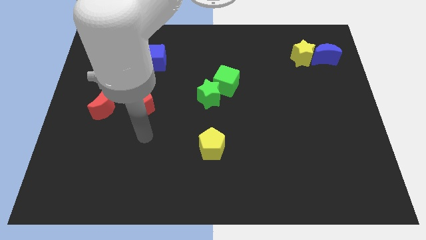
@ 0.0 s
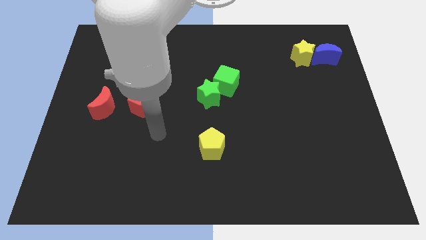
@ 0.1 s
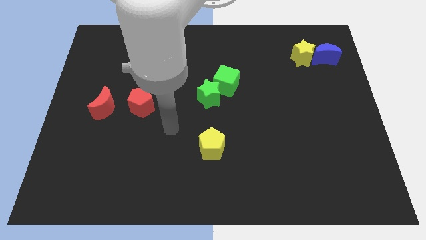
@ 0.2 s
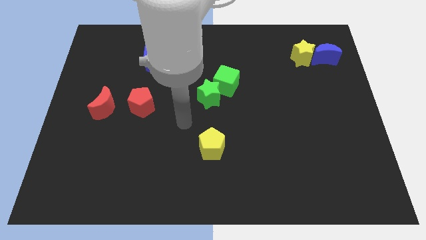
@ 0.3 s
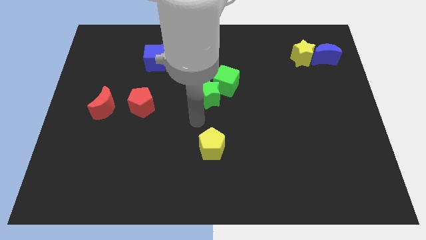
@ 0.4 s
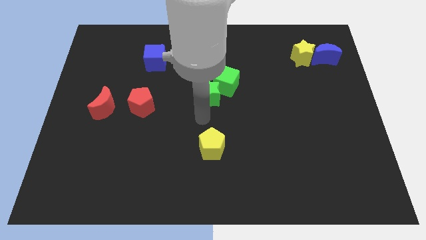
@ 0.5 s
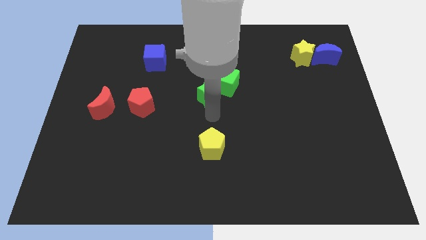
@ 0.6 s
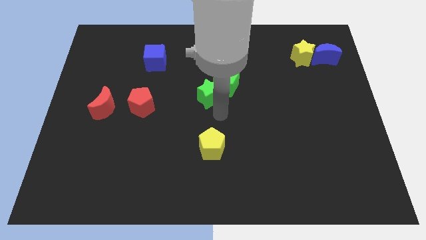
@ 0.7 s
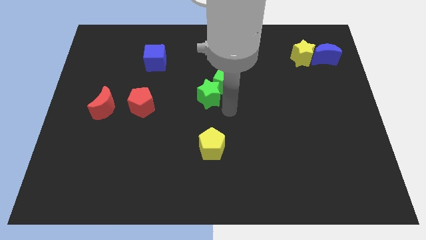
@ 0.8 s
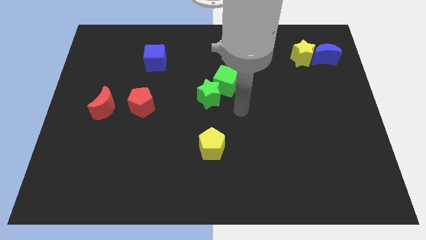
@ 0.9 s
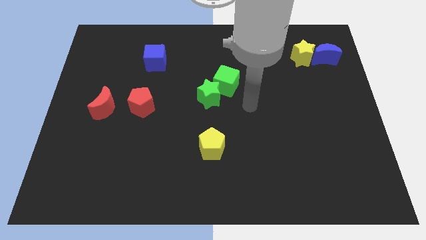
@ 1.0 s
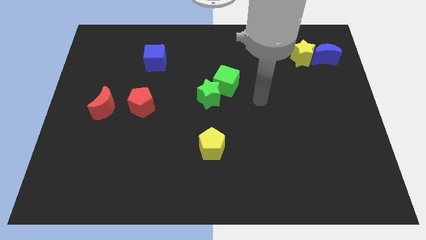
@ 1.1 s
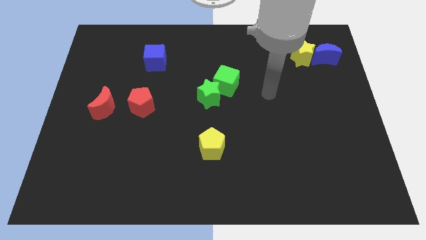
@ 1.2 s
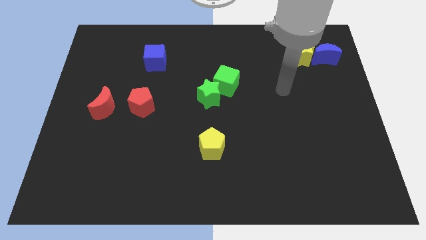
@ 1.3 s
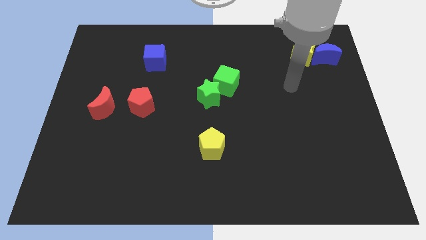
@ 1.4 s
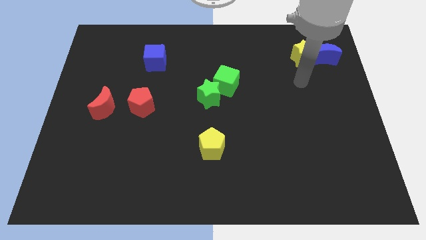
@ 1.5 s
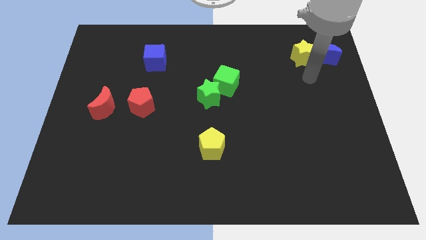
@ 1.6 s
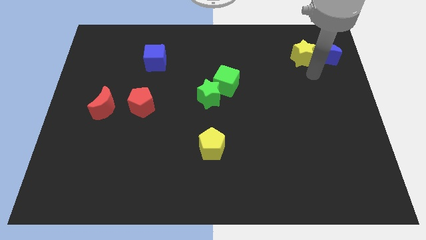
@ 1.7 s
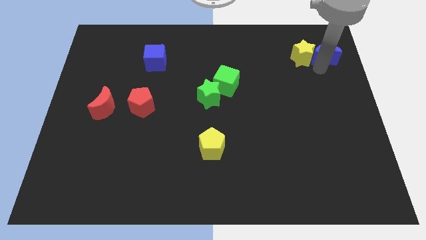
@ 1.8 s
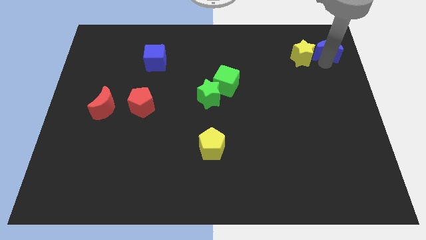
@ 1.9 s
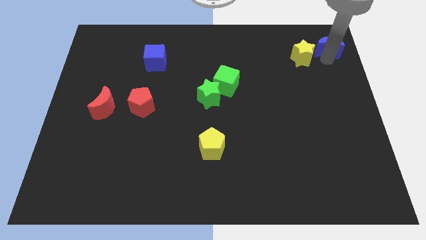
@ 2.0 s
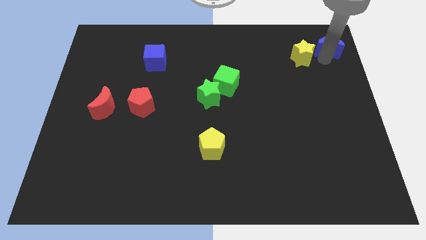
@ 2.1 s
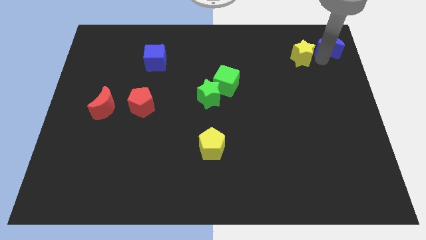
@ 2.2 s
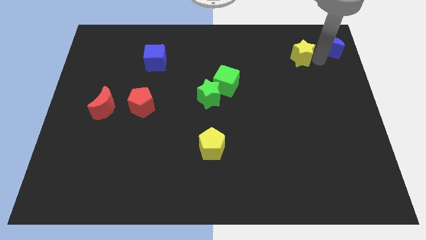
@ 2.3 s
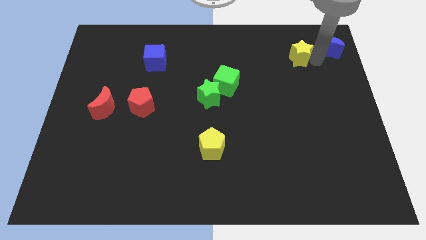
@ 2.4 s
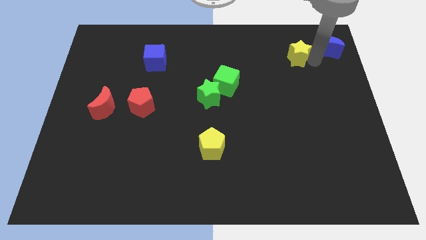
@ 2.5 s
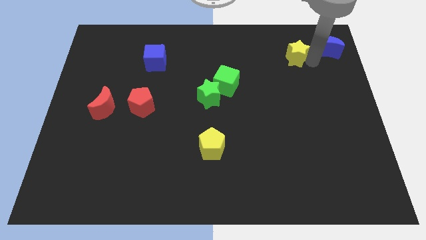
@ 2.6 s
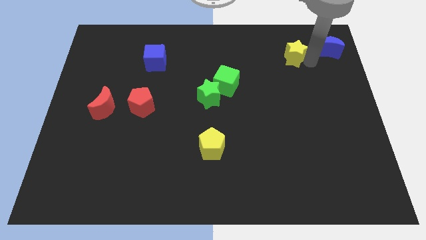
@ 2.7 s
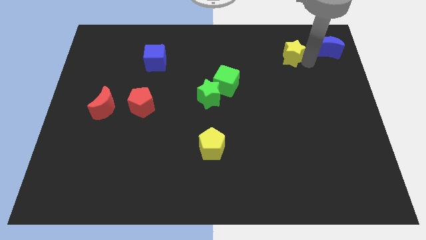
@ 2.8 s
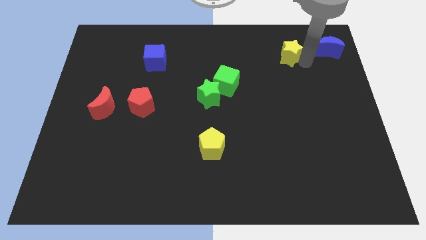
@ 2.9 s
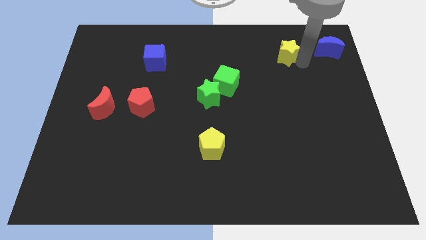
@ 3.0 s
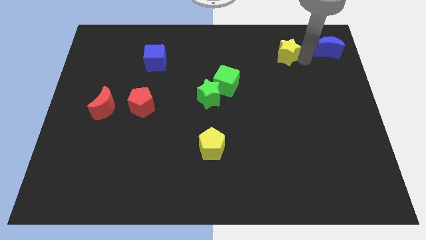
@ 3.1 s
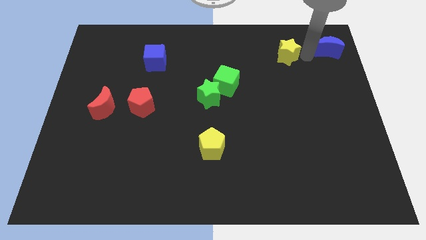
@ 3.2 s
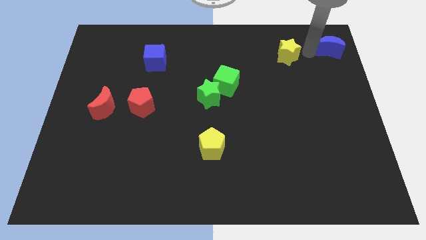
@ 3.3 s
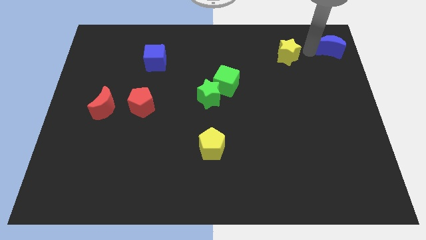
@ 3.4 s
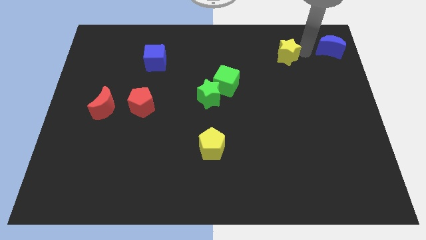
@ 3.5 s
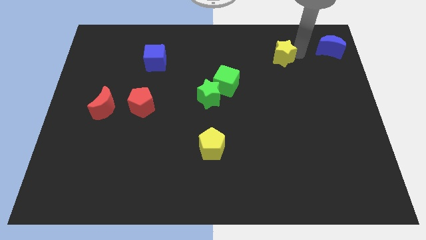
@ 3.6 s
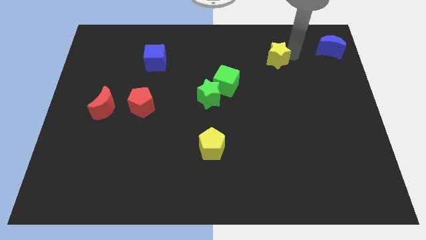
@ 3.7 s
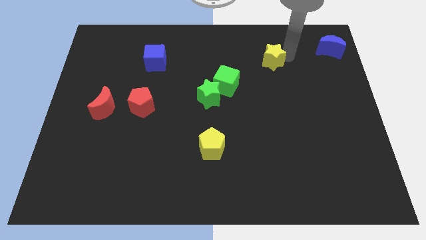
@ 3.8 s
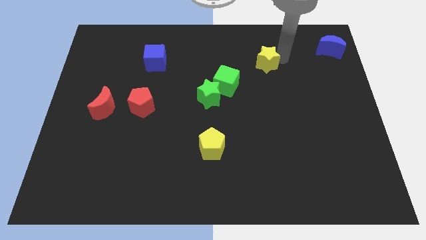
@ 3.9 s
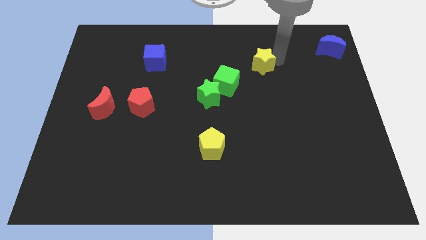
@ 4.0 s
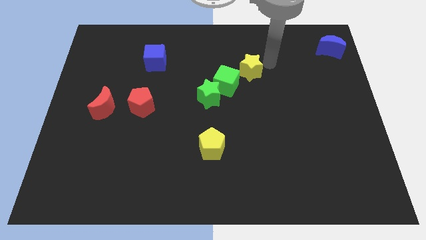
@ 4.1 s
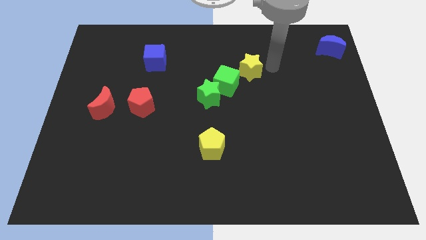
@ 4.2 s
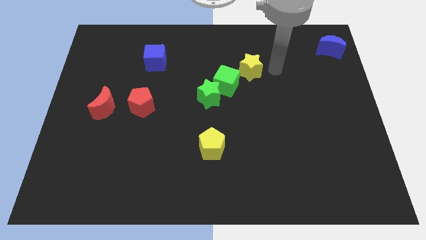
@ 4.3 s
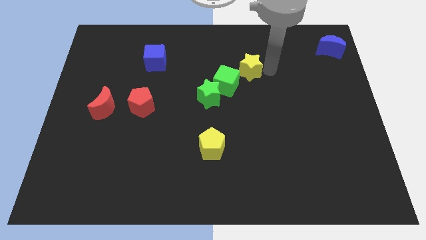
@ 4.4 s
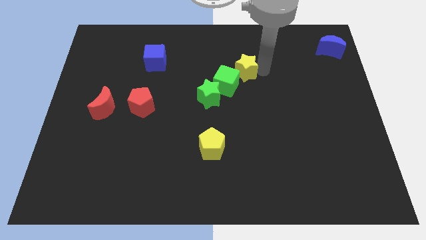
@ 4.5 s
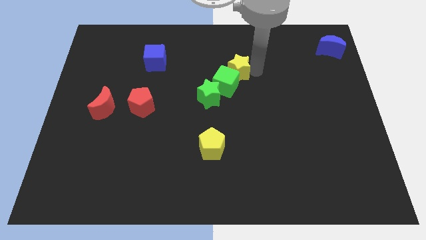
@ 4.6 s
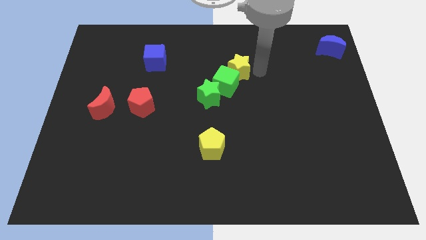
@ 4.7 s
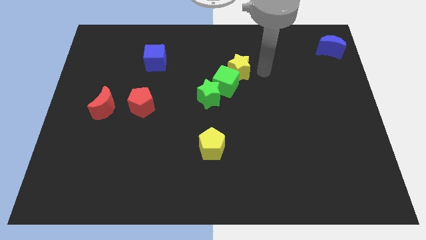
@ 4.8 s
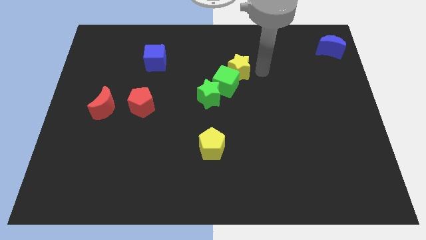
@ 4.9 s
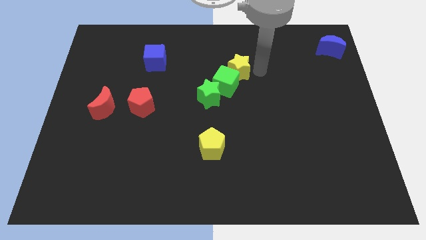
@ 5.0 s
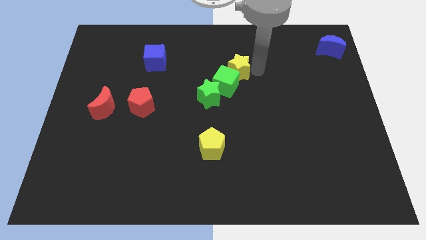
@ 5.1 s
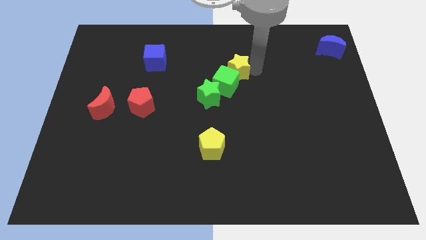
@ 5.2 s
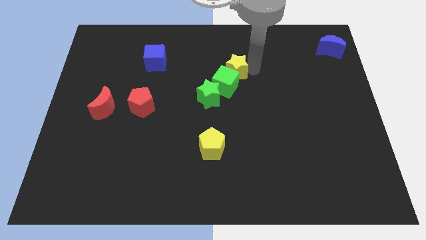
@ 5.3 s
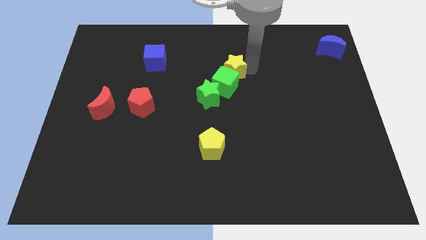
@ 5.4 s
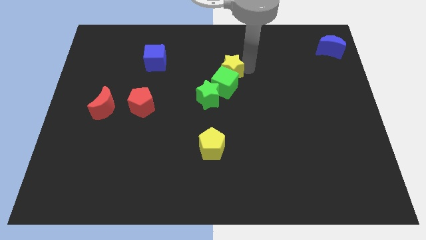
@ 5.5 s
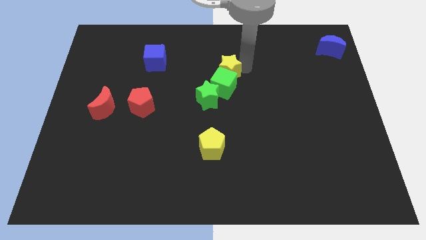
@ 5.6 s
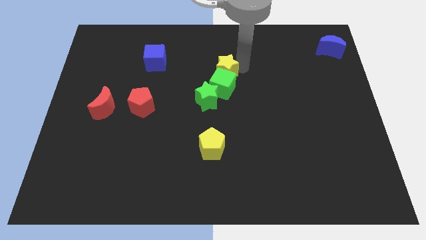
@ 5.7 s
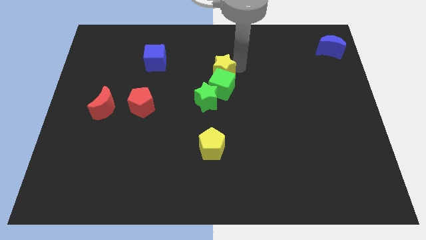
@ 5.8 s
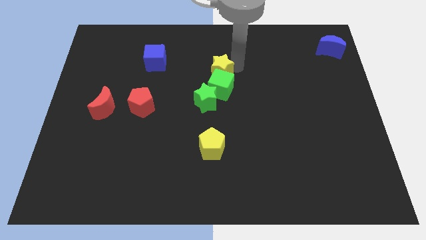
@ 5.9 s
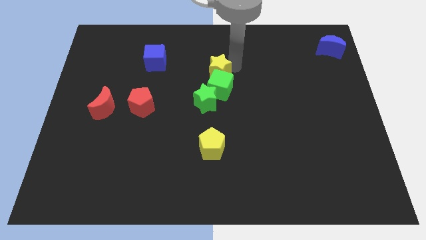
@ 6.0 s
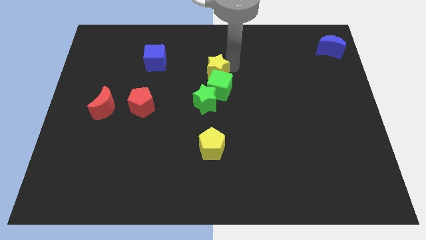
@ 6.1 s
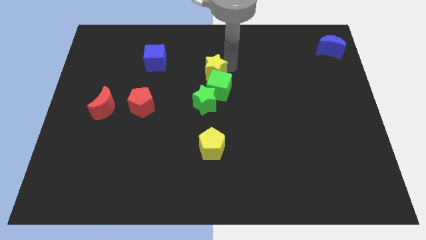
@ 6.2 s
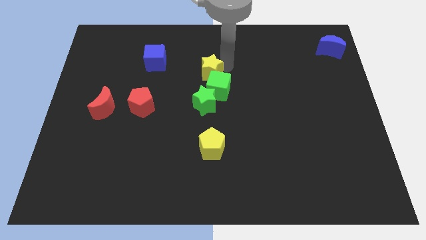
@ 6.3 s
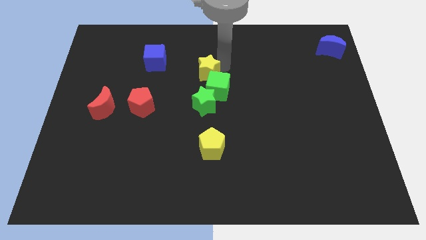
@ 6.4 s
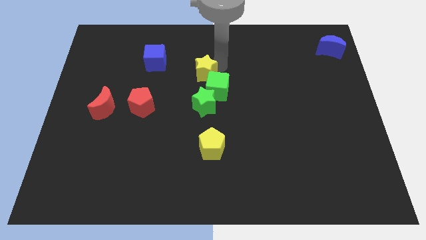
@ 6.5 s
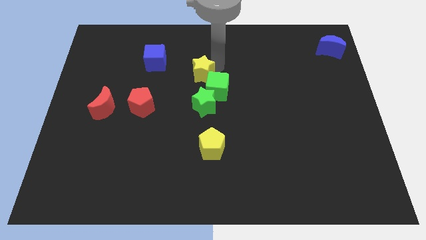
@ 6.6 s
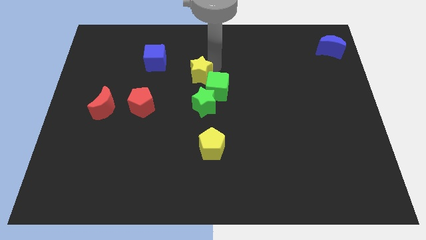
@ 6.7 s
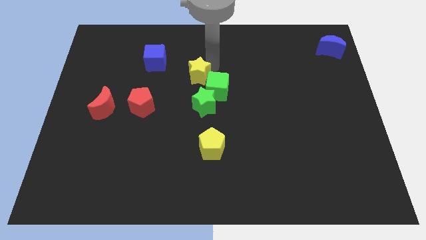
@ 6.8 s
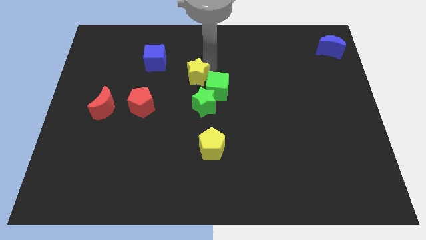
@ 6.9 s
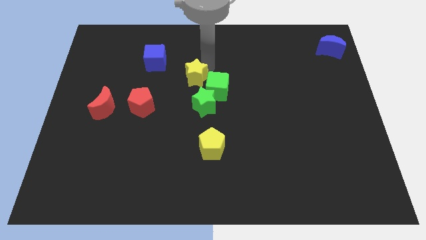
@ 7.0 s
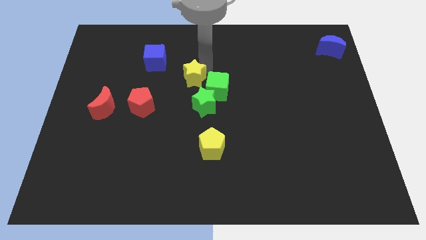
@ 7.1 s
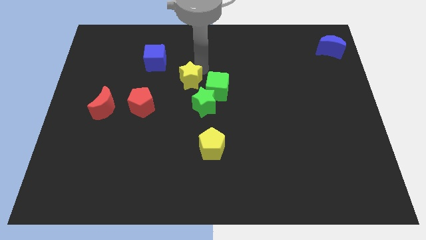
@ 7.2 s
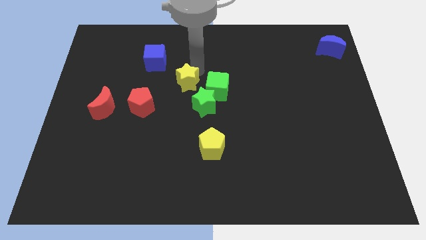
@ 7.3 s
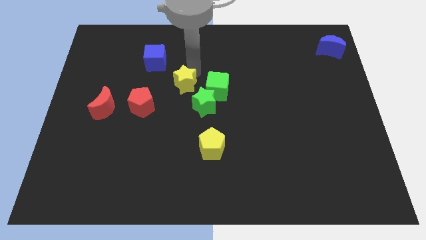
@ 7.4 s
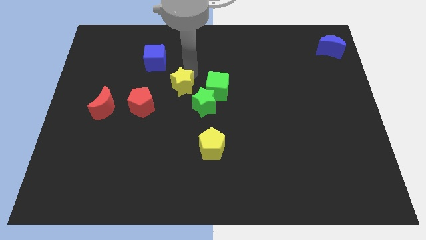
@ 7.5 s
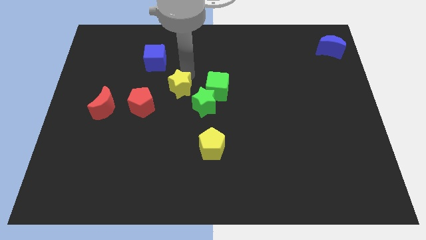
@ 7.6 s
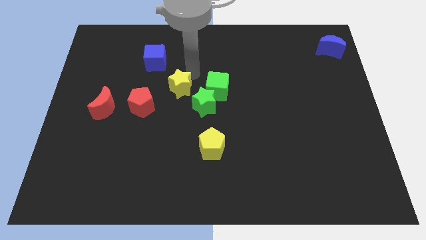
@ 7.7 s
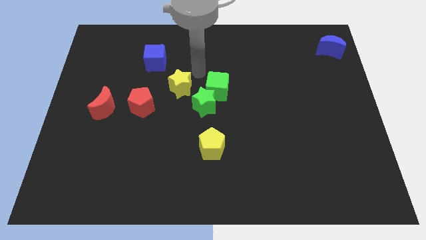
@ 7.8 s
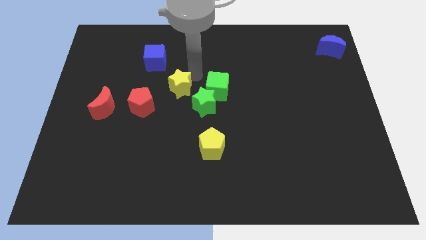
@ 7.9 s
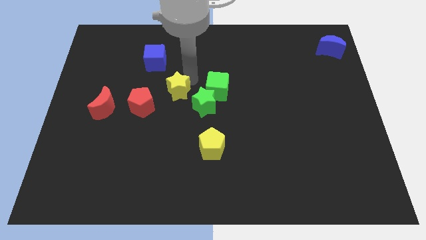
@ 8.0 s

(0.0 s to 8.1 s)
put the yellow star to the left side of the green star
